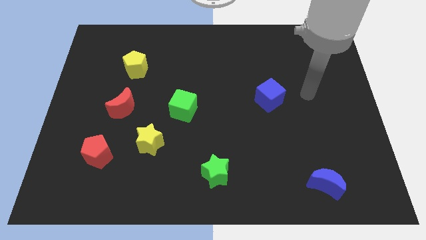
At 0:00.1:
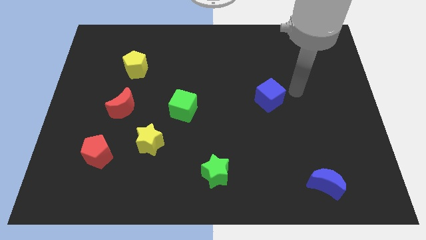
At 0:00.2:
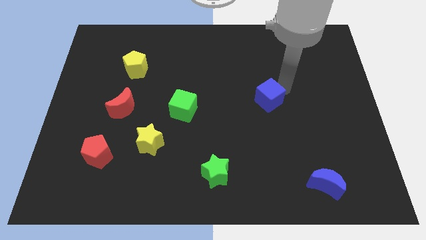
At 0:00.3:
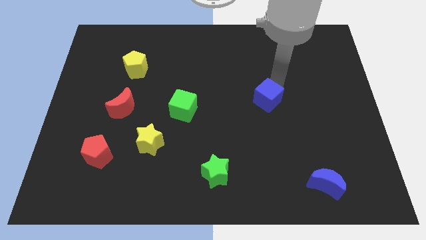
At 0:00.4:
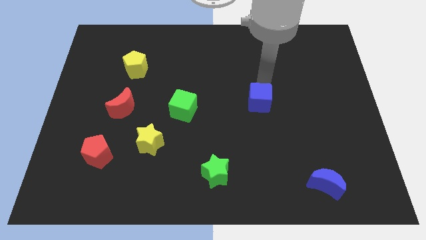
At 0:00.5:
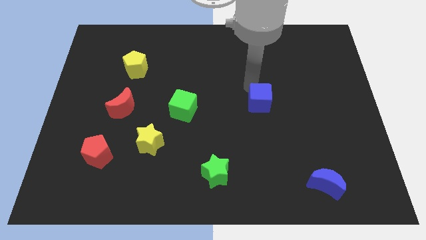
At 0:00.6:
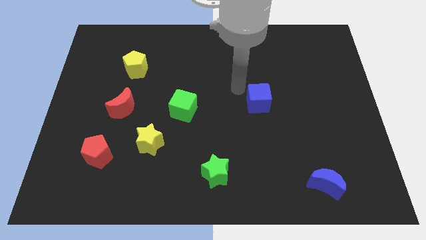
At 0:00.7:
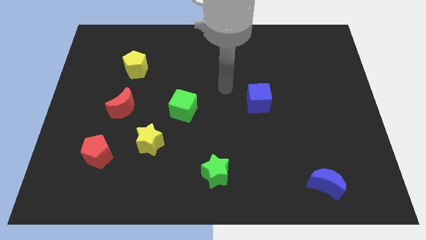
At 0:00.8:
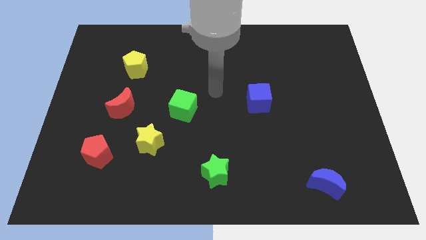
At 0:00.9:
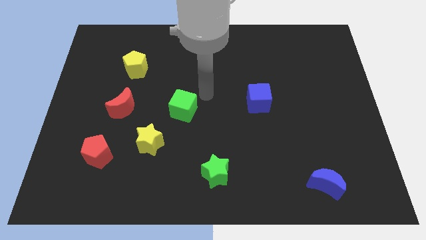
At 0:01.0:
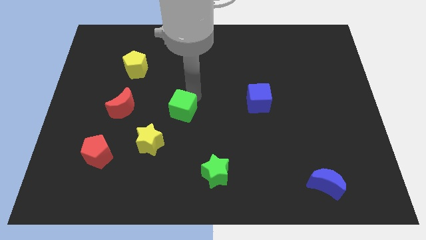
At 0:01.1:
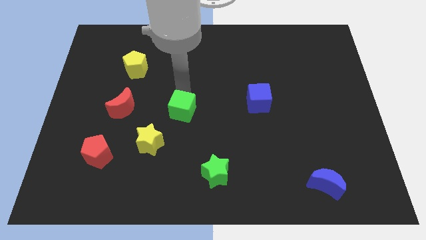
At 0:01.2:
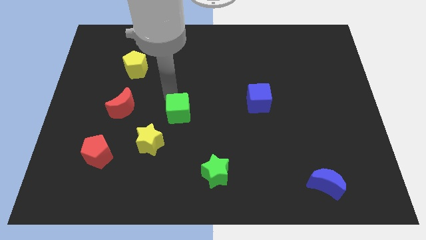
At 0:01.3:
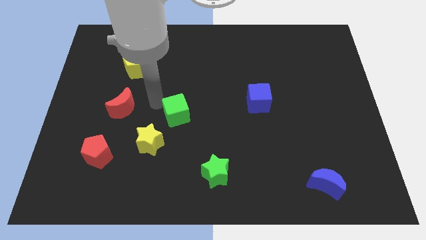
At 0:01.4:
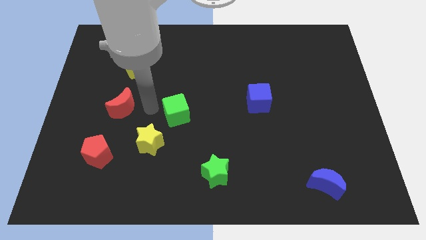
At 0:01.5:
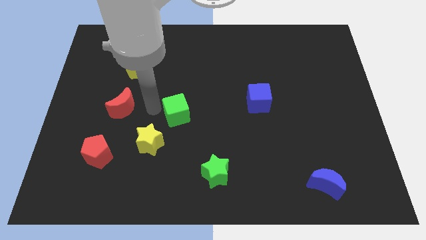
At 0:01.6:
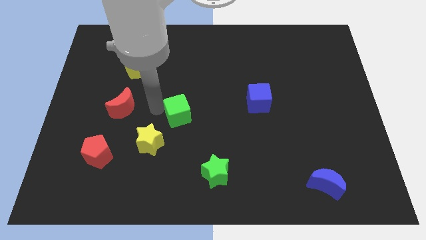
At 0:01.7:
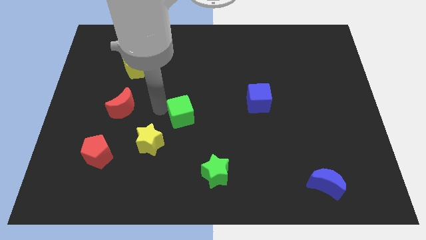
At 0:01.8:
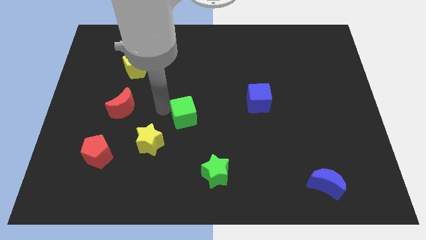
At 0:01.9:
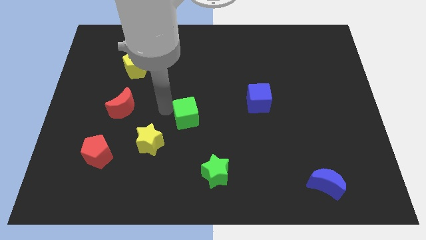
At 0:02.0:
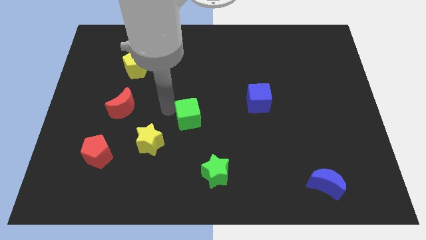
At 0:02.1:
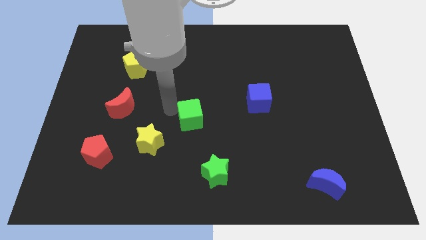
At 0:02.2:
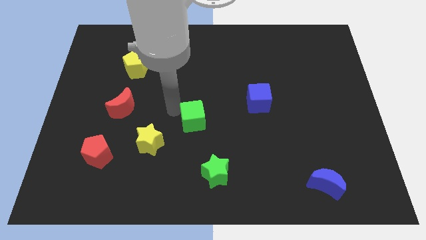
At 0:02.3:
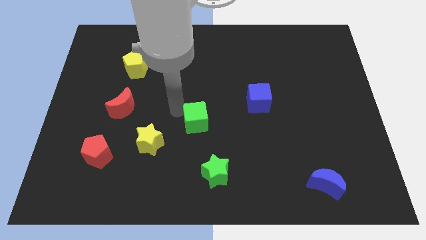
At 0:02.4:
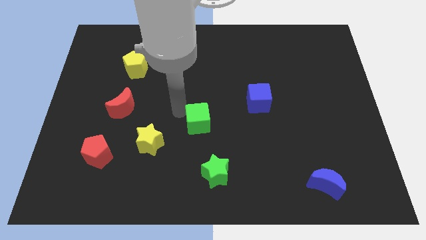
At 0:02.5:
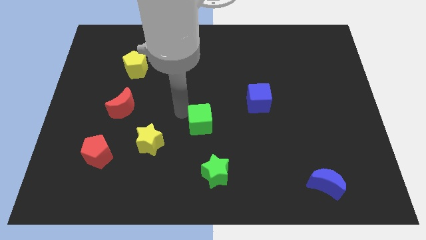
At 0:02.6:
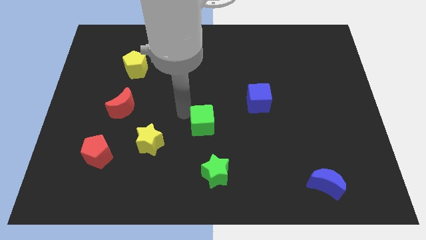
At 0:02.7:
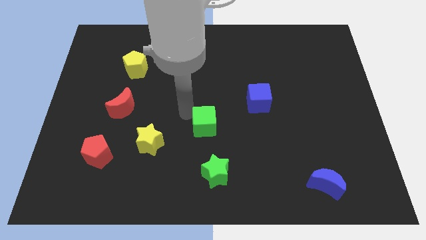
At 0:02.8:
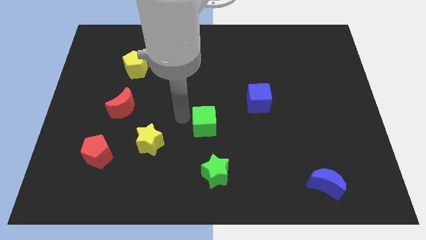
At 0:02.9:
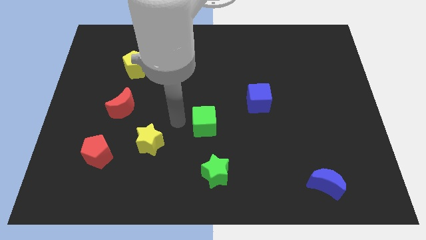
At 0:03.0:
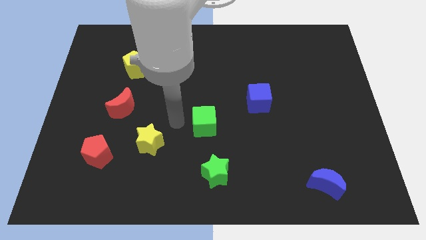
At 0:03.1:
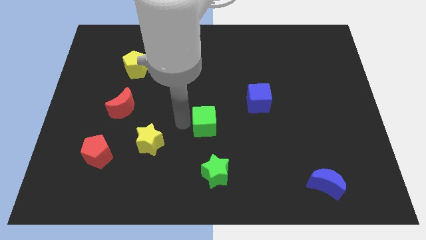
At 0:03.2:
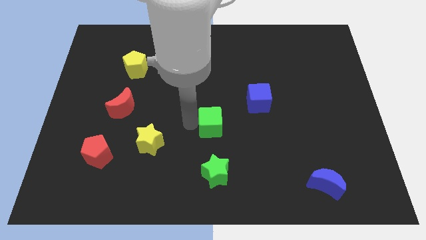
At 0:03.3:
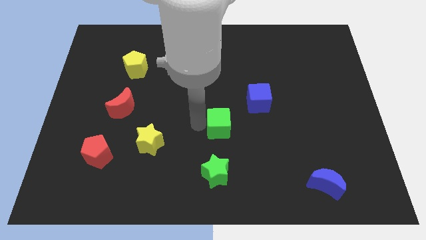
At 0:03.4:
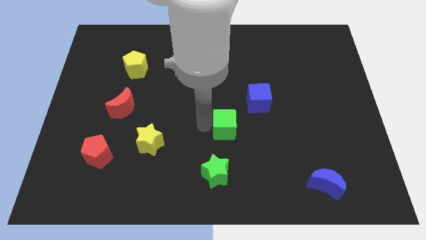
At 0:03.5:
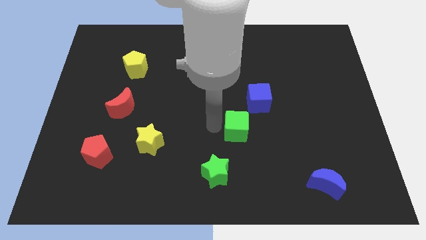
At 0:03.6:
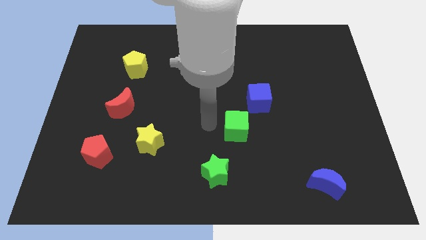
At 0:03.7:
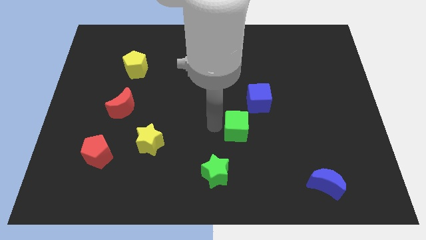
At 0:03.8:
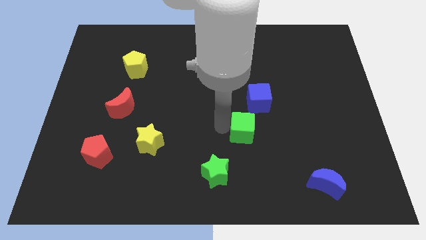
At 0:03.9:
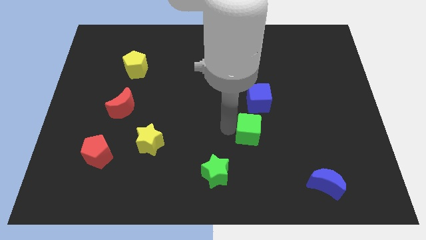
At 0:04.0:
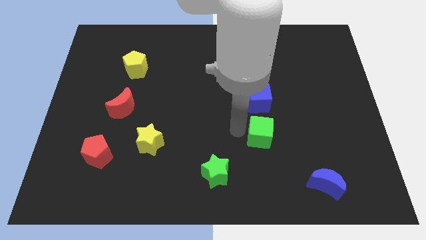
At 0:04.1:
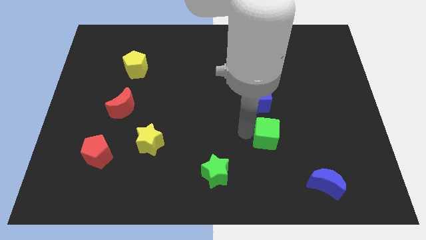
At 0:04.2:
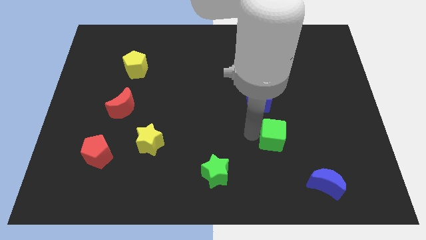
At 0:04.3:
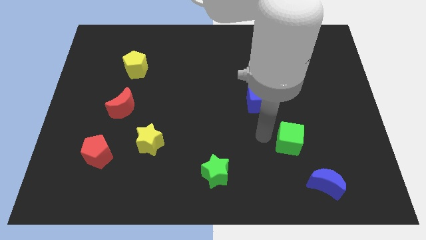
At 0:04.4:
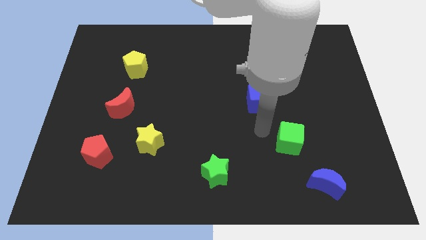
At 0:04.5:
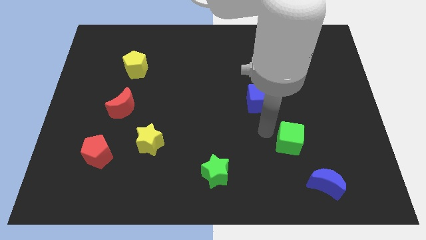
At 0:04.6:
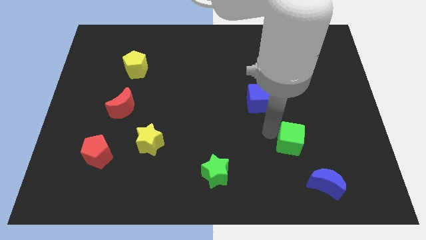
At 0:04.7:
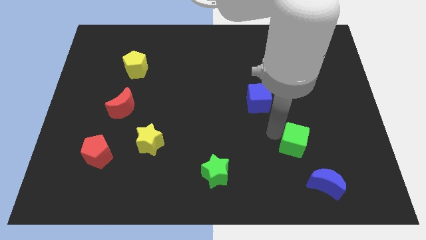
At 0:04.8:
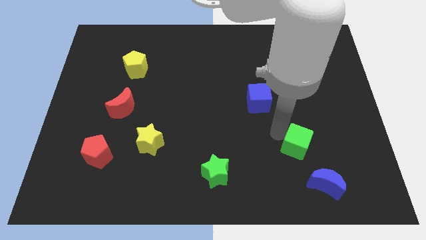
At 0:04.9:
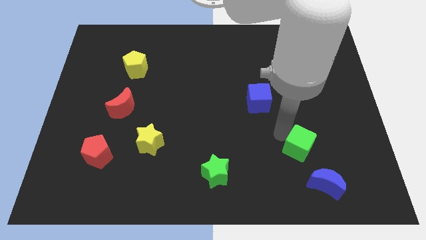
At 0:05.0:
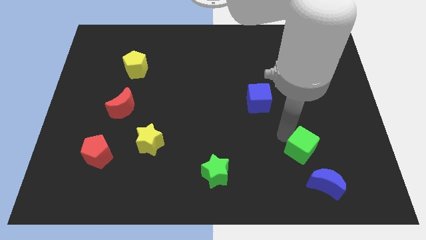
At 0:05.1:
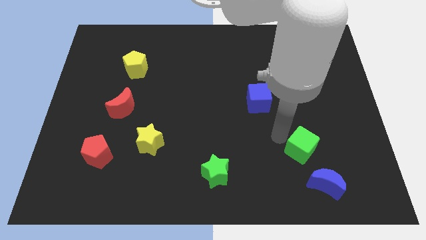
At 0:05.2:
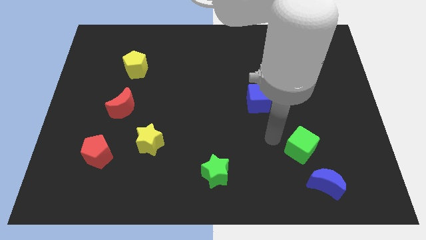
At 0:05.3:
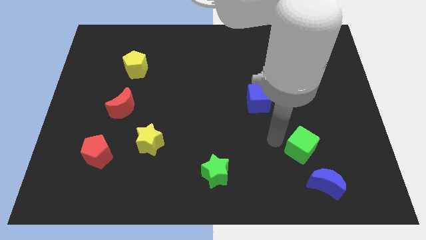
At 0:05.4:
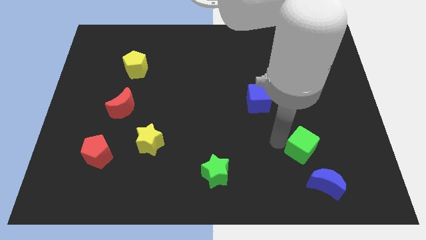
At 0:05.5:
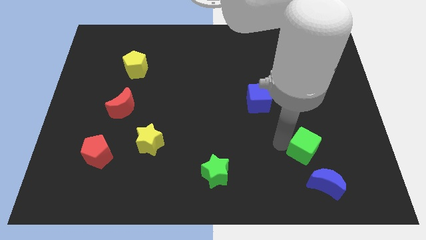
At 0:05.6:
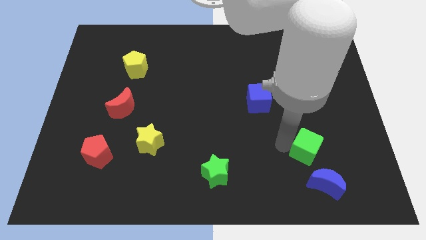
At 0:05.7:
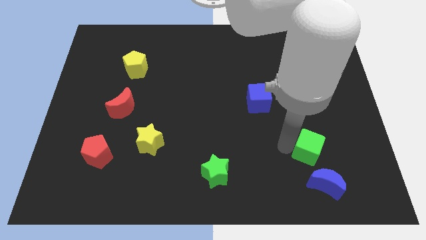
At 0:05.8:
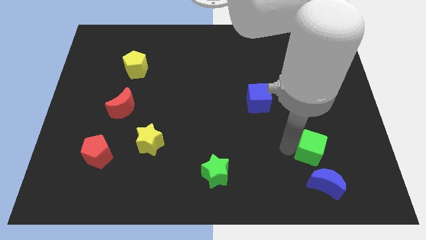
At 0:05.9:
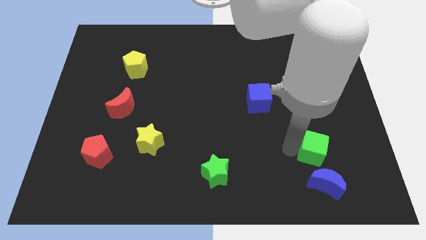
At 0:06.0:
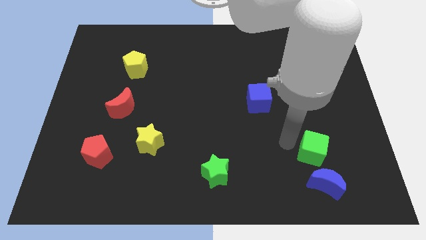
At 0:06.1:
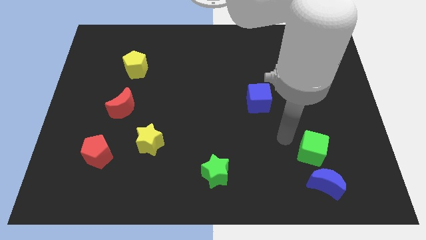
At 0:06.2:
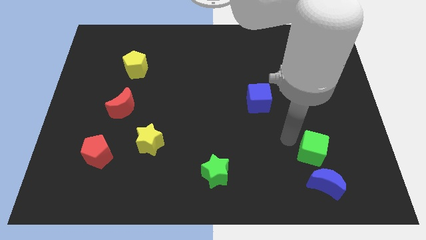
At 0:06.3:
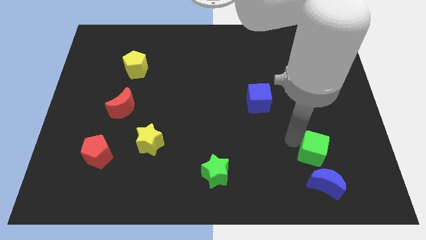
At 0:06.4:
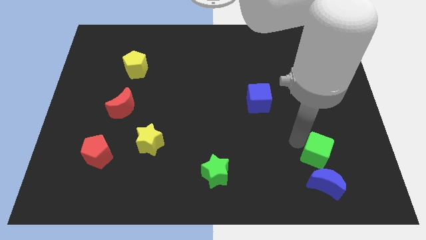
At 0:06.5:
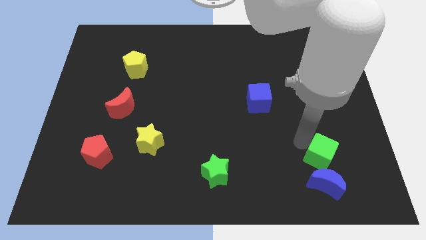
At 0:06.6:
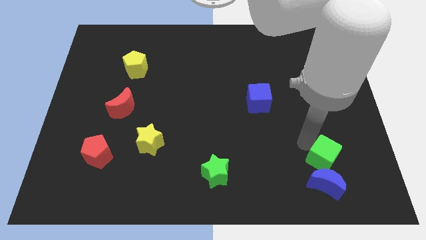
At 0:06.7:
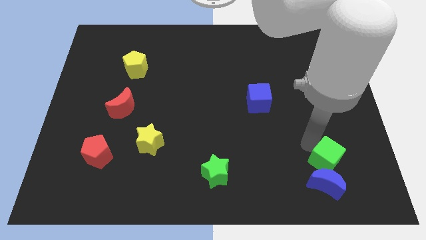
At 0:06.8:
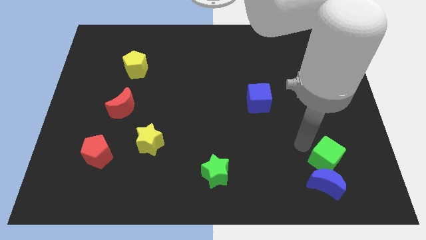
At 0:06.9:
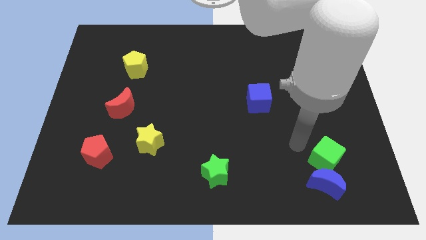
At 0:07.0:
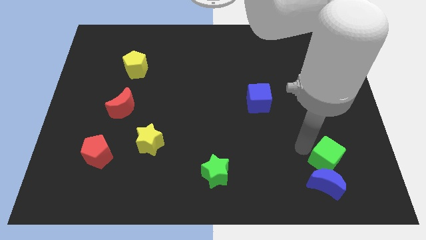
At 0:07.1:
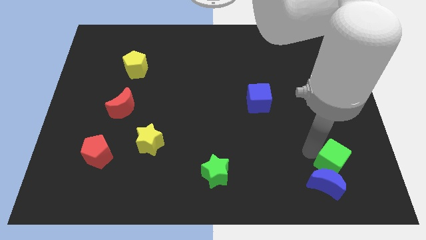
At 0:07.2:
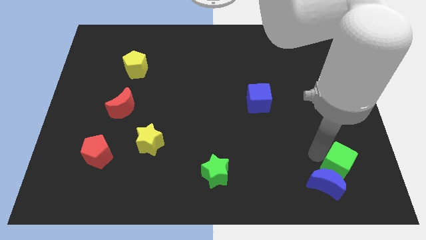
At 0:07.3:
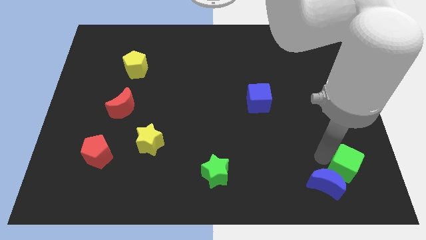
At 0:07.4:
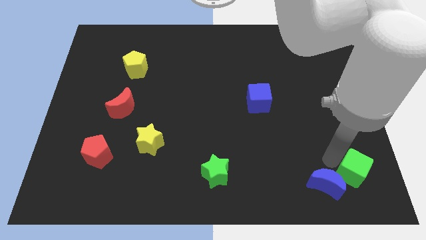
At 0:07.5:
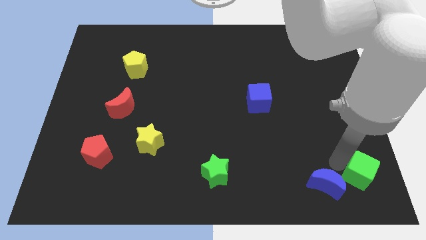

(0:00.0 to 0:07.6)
move the green cube to the bottom right corner
